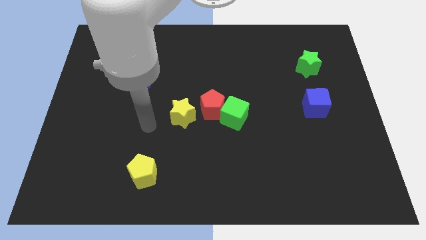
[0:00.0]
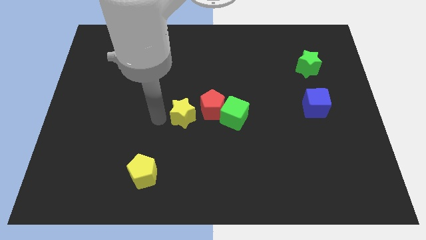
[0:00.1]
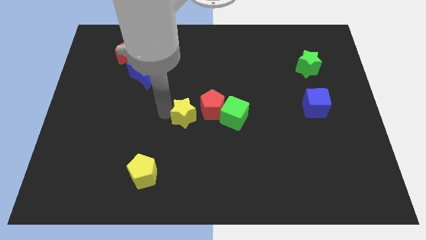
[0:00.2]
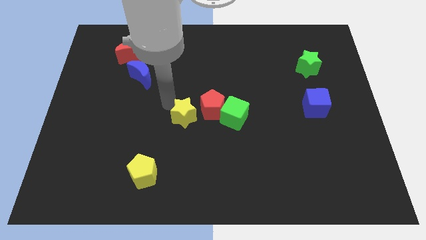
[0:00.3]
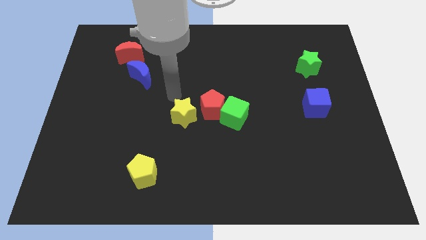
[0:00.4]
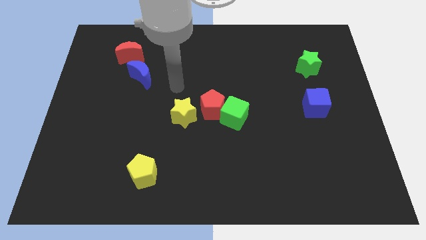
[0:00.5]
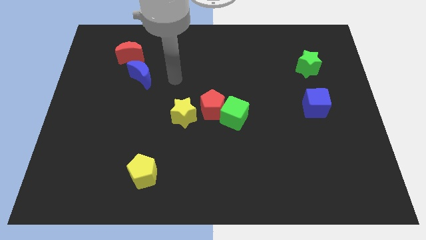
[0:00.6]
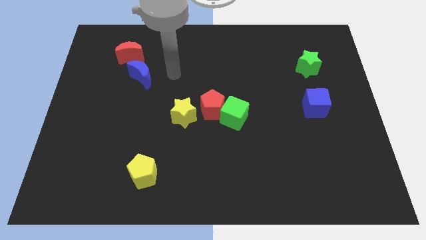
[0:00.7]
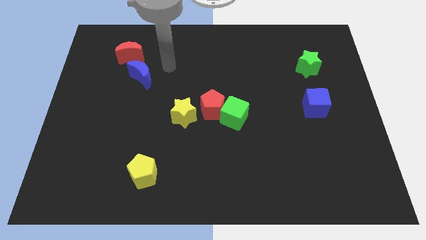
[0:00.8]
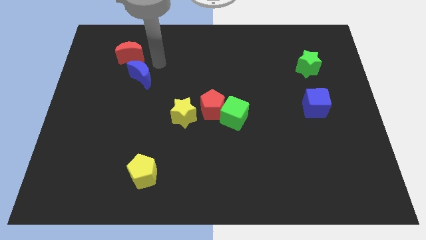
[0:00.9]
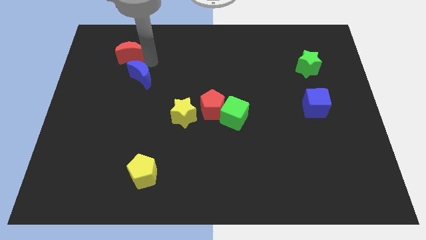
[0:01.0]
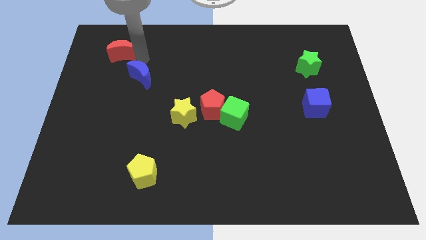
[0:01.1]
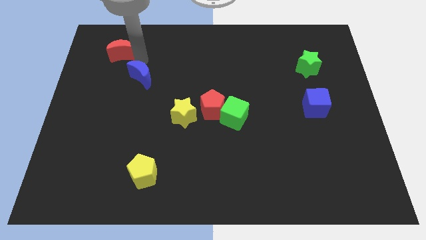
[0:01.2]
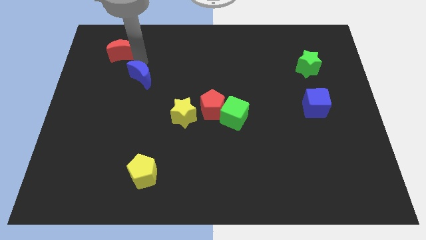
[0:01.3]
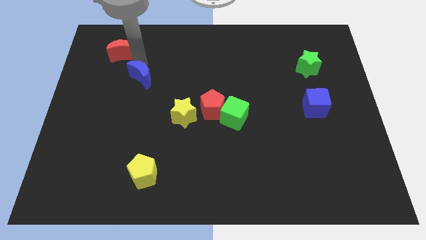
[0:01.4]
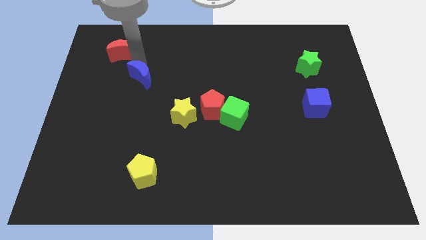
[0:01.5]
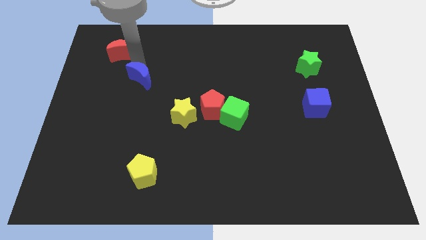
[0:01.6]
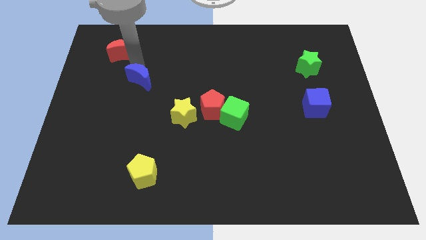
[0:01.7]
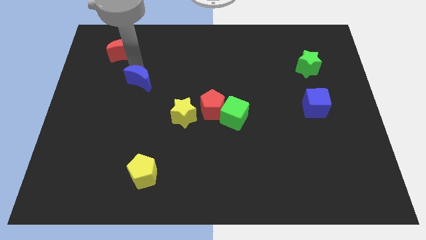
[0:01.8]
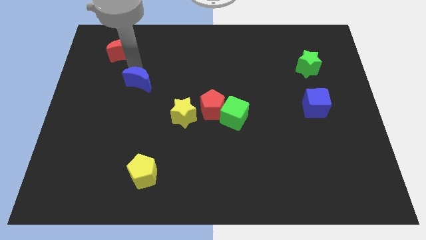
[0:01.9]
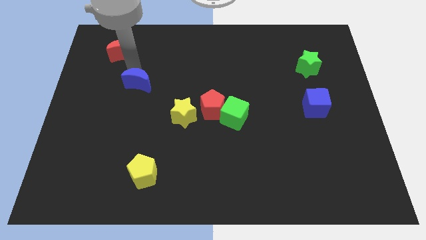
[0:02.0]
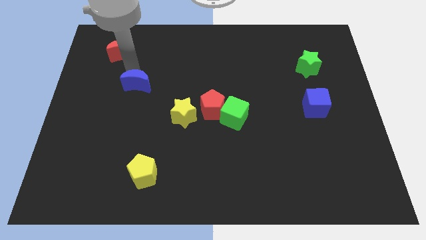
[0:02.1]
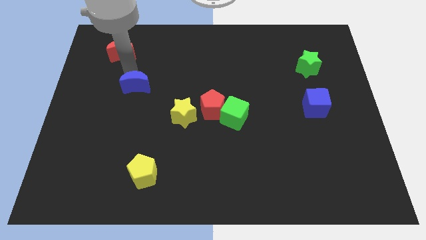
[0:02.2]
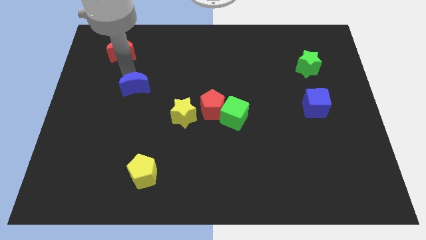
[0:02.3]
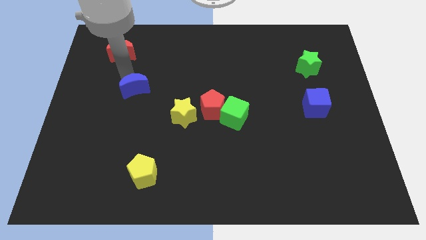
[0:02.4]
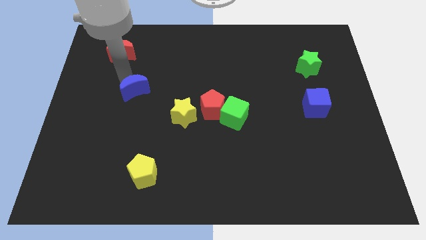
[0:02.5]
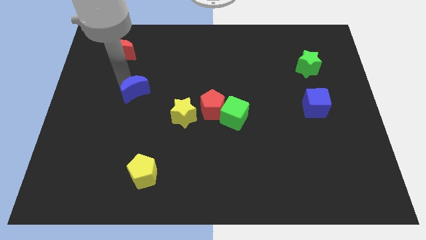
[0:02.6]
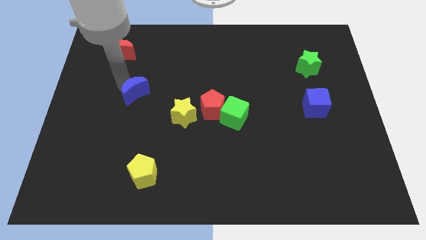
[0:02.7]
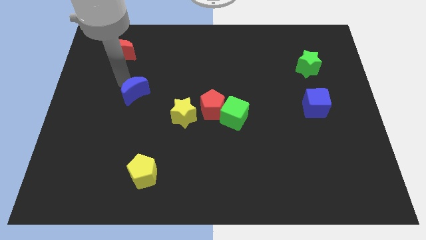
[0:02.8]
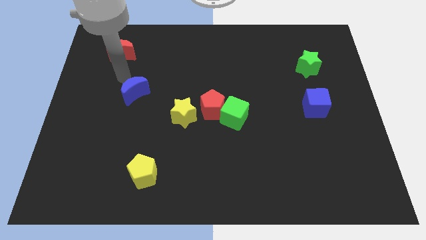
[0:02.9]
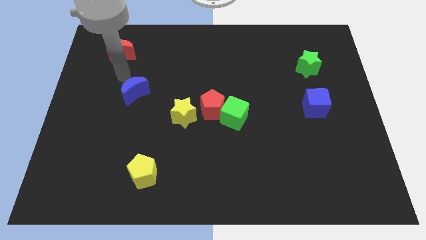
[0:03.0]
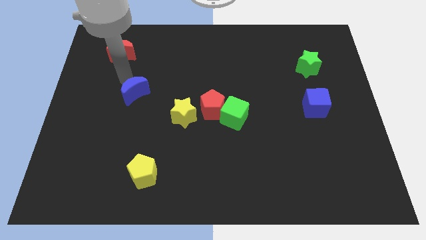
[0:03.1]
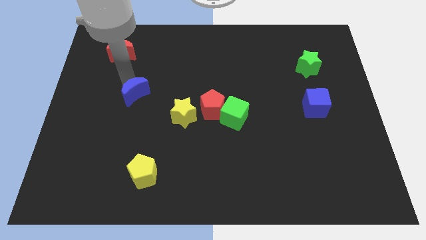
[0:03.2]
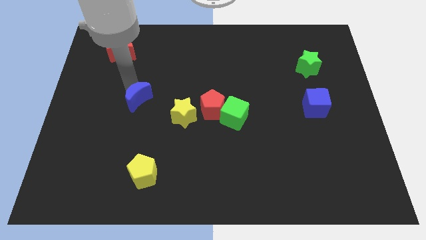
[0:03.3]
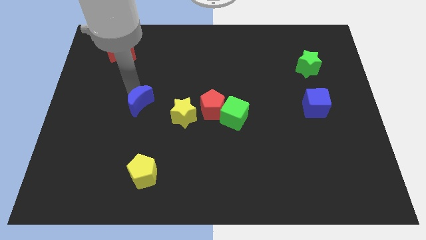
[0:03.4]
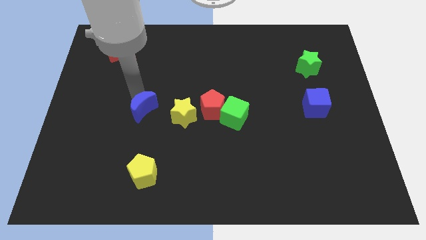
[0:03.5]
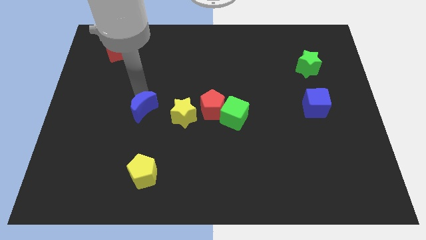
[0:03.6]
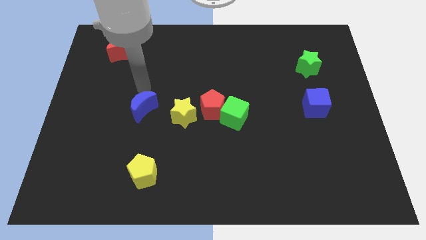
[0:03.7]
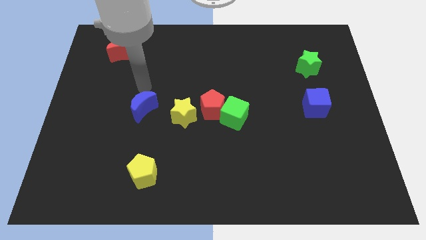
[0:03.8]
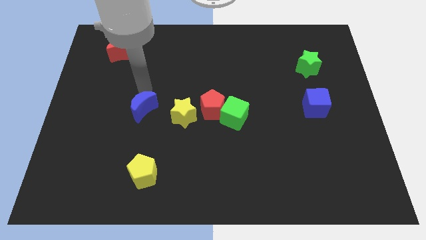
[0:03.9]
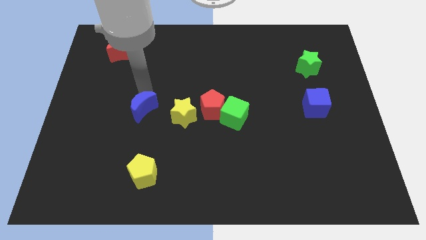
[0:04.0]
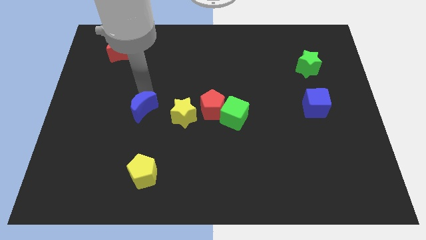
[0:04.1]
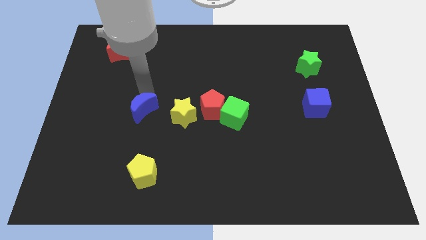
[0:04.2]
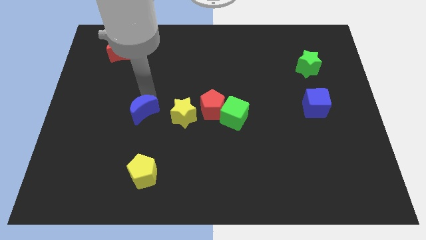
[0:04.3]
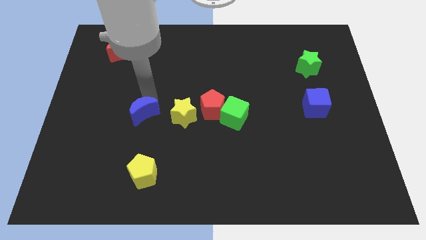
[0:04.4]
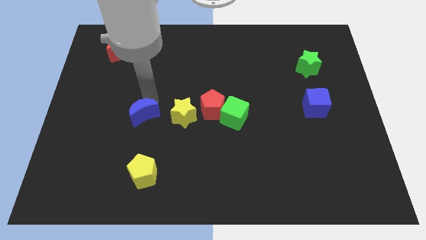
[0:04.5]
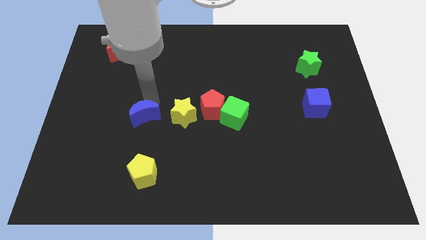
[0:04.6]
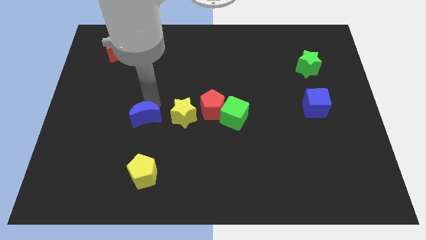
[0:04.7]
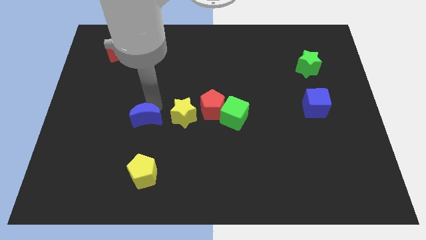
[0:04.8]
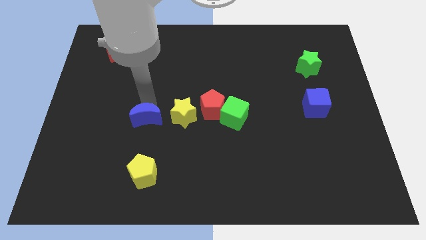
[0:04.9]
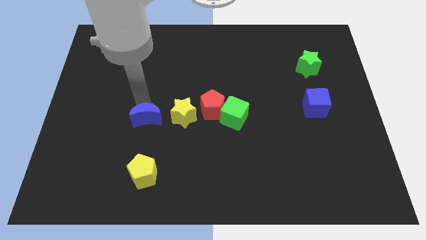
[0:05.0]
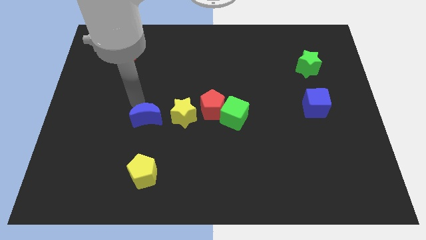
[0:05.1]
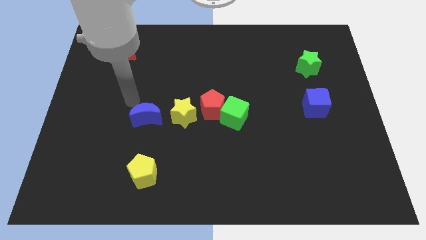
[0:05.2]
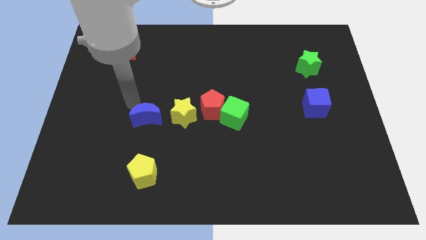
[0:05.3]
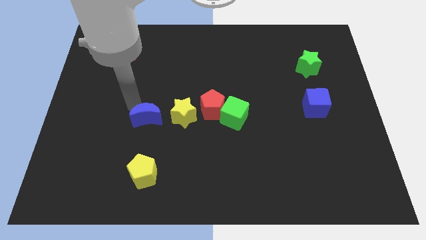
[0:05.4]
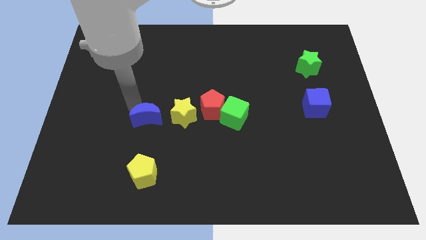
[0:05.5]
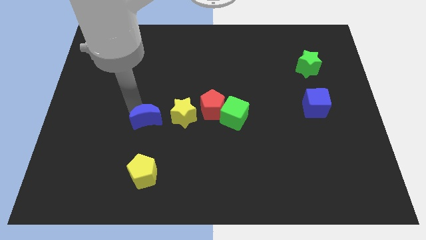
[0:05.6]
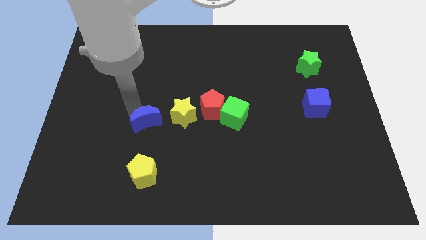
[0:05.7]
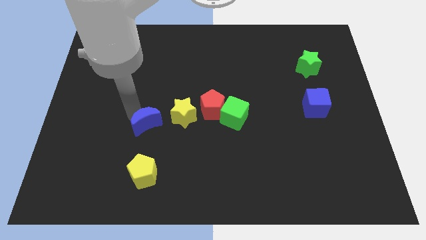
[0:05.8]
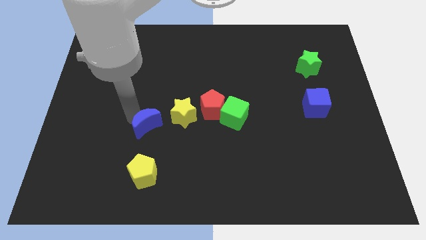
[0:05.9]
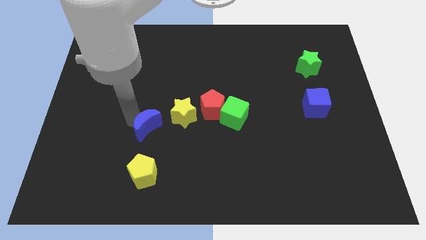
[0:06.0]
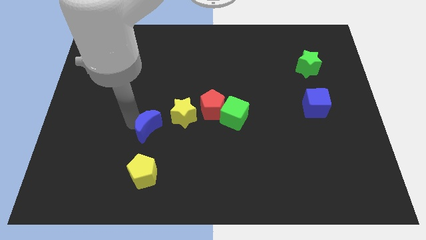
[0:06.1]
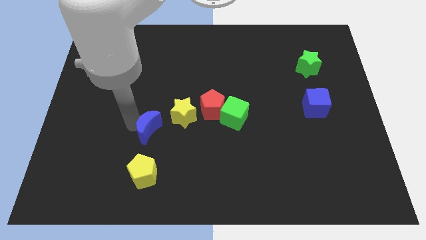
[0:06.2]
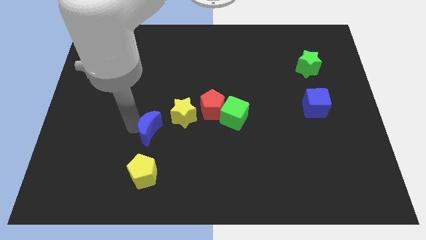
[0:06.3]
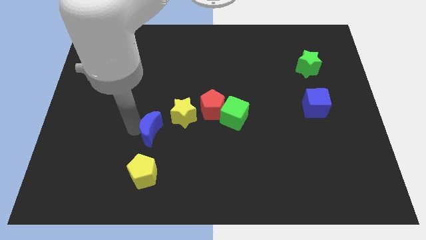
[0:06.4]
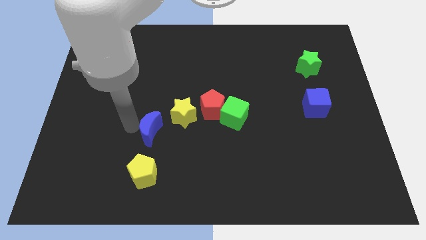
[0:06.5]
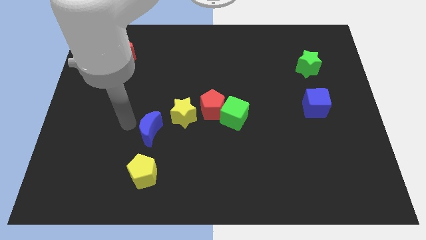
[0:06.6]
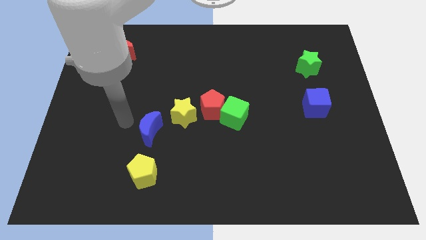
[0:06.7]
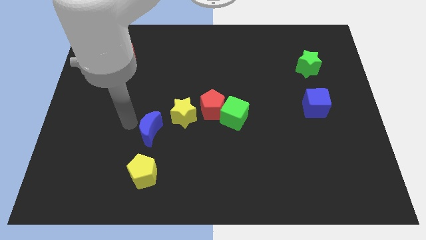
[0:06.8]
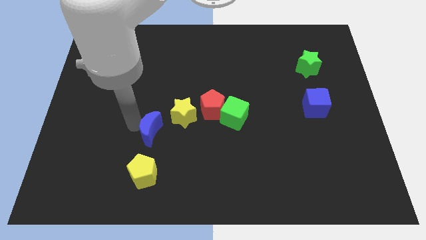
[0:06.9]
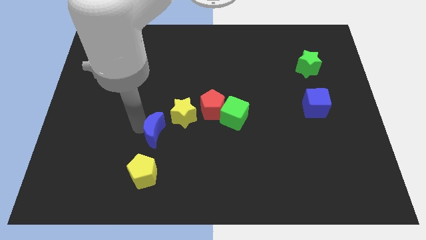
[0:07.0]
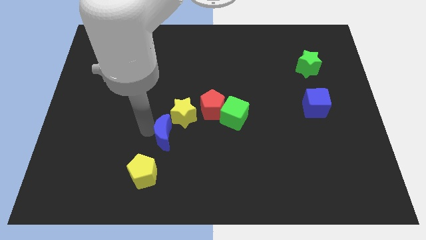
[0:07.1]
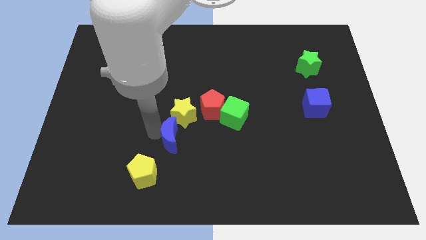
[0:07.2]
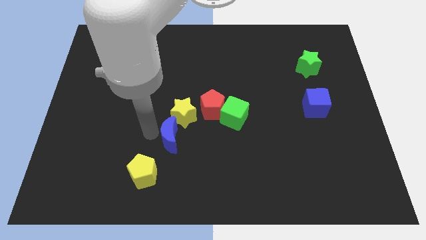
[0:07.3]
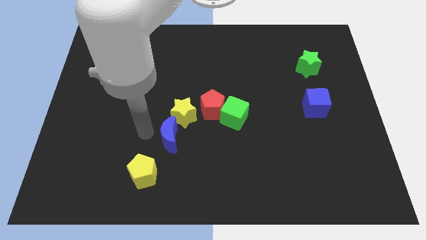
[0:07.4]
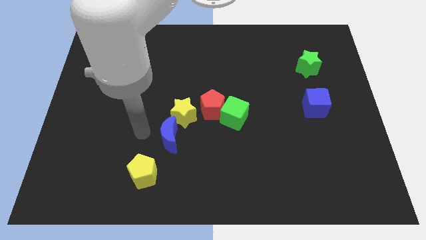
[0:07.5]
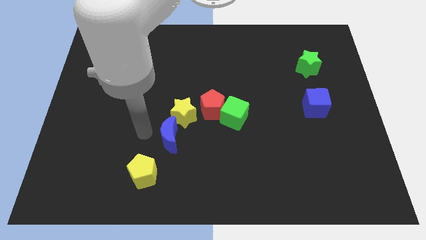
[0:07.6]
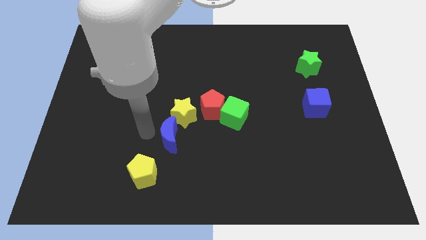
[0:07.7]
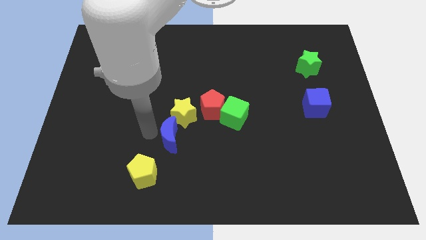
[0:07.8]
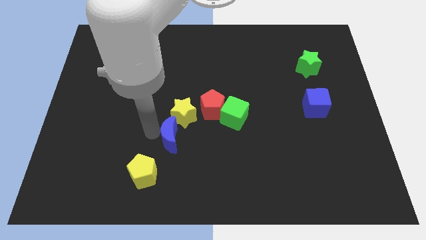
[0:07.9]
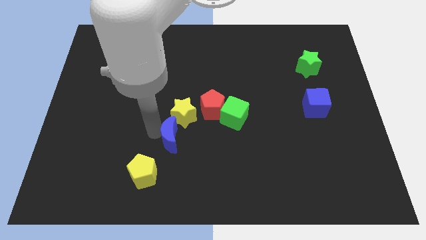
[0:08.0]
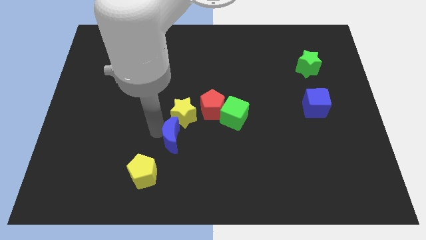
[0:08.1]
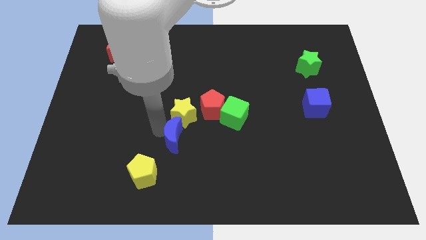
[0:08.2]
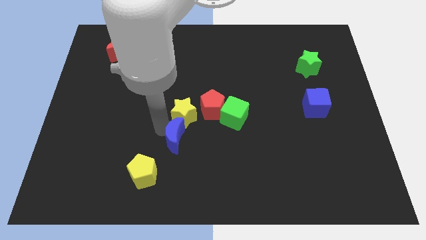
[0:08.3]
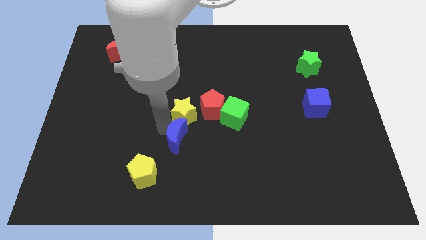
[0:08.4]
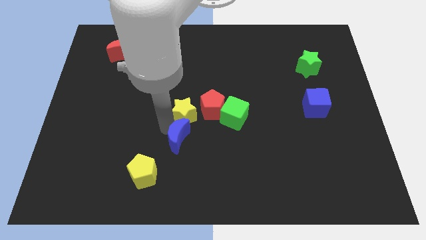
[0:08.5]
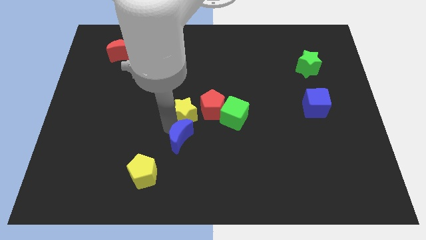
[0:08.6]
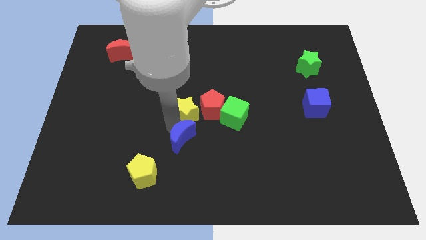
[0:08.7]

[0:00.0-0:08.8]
move the blue moon downwards and then right
